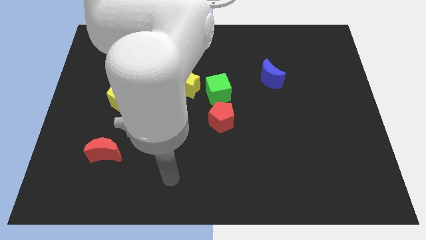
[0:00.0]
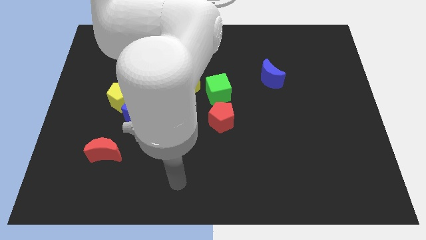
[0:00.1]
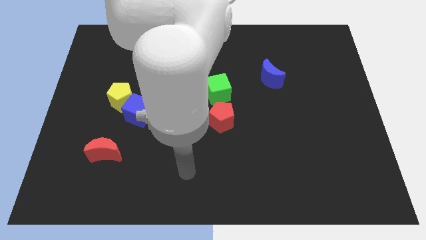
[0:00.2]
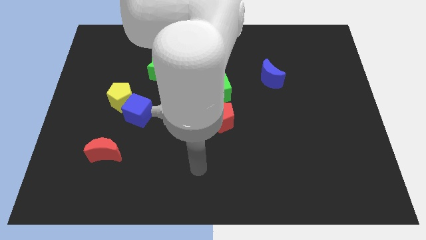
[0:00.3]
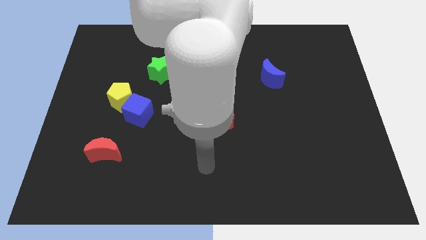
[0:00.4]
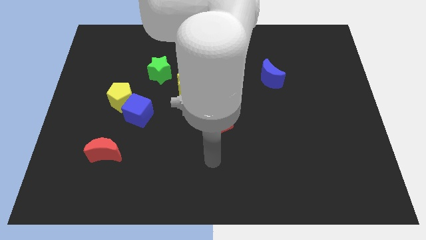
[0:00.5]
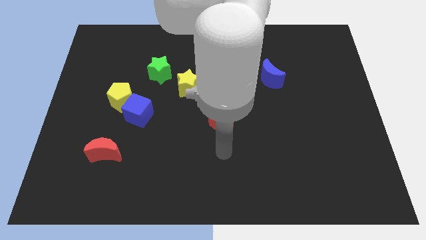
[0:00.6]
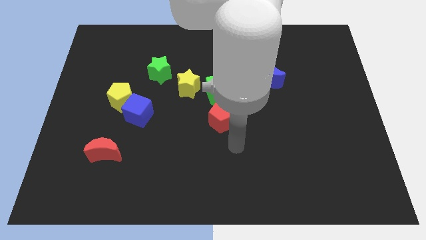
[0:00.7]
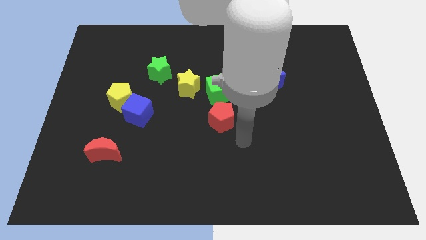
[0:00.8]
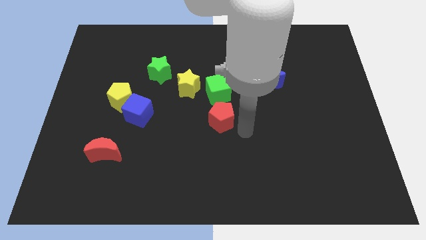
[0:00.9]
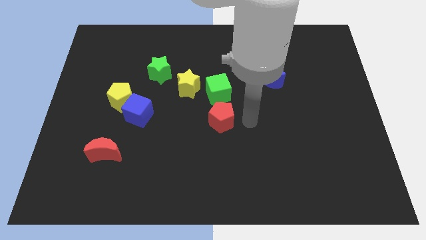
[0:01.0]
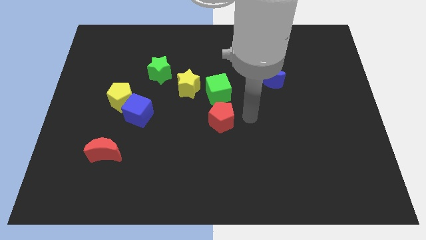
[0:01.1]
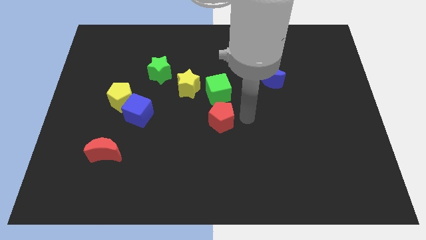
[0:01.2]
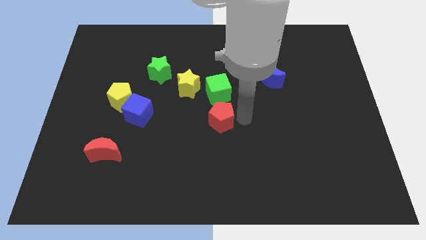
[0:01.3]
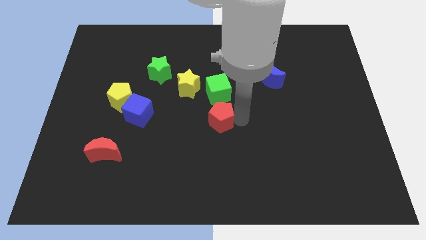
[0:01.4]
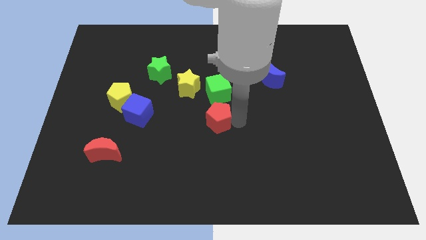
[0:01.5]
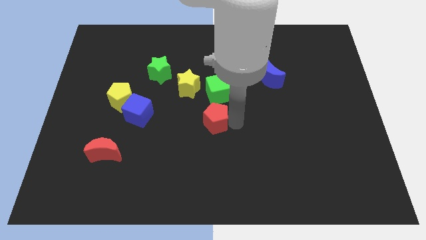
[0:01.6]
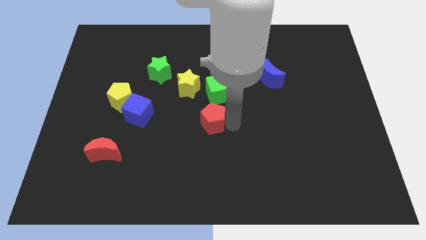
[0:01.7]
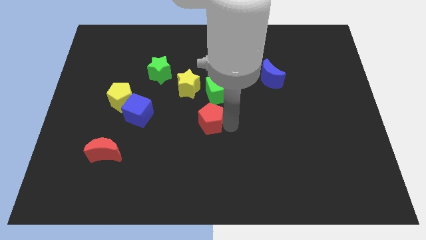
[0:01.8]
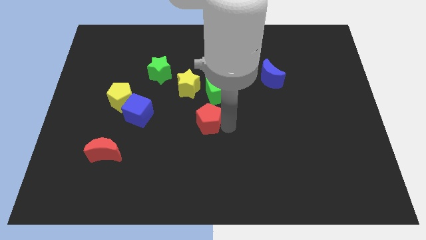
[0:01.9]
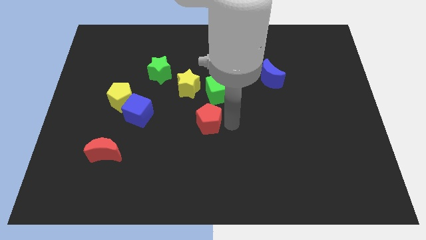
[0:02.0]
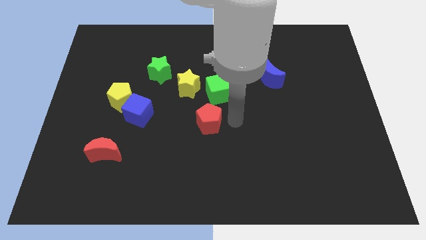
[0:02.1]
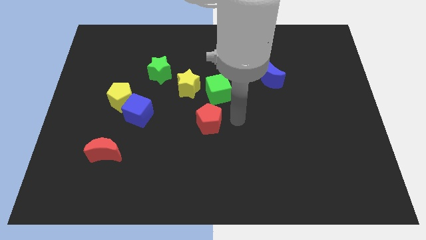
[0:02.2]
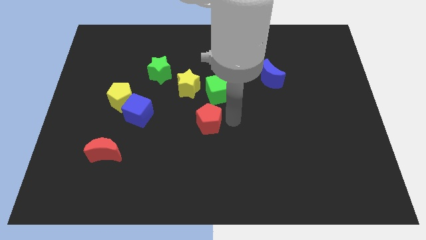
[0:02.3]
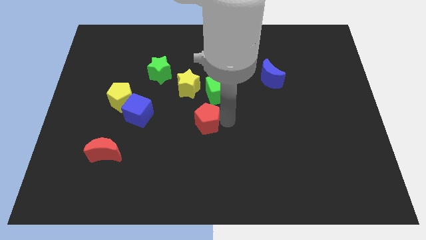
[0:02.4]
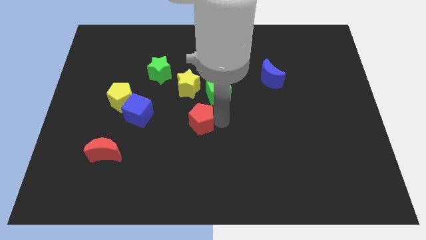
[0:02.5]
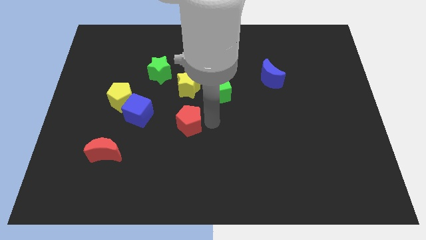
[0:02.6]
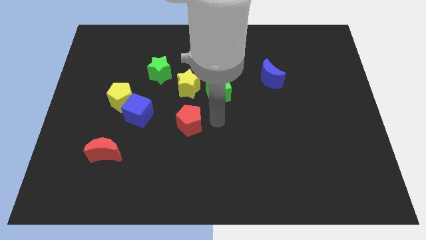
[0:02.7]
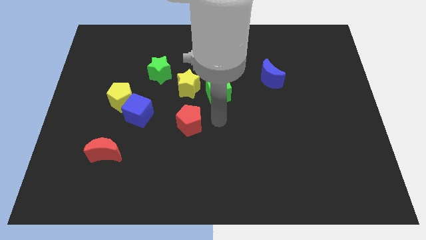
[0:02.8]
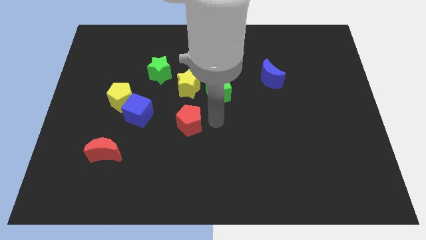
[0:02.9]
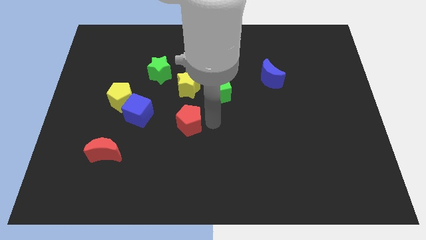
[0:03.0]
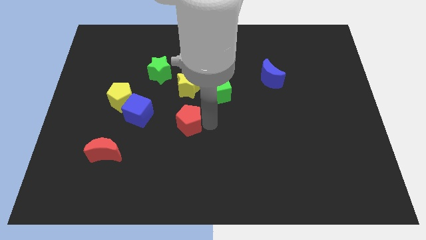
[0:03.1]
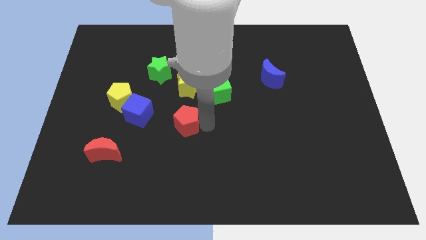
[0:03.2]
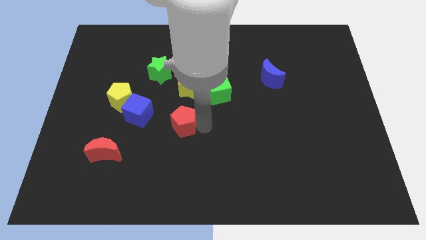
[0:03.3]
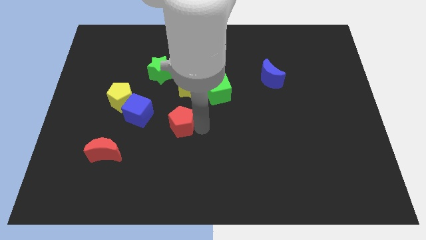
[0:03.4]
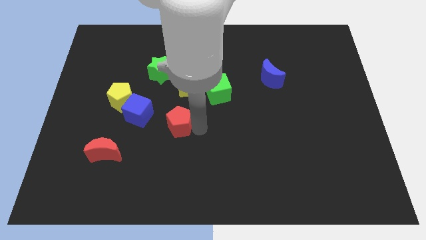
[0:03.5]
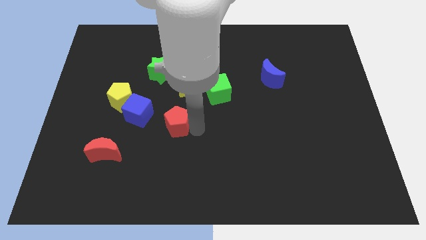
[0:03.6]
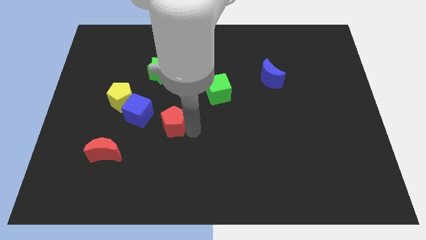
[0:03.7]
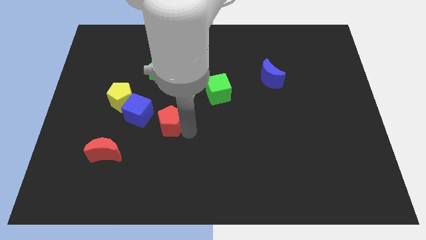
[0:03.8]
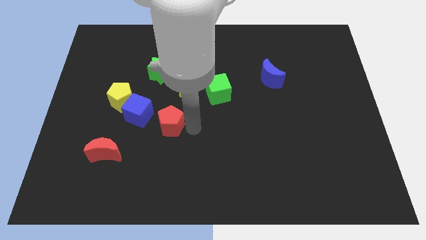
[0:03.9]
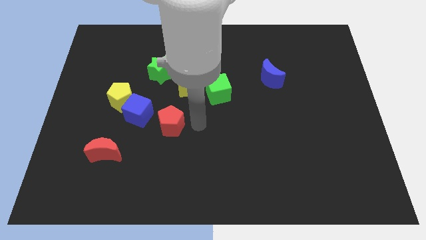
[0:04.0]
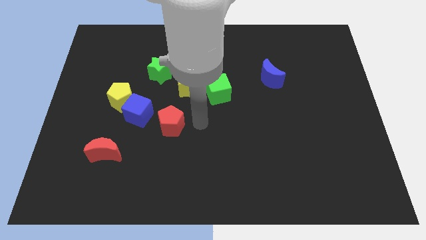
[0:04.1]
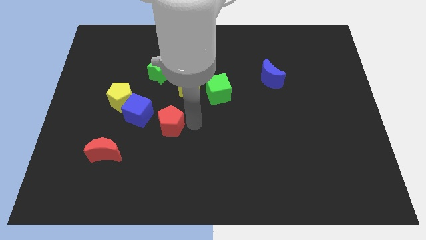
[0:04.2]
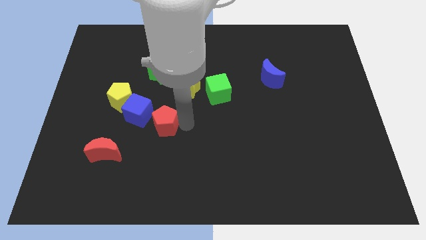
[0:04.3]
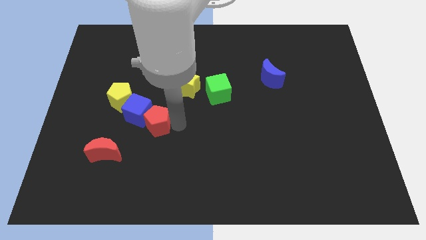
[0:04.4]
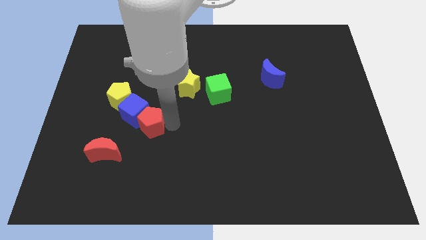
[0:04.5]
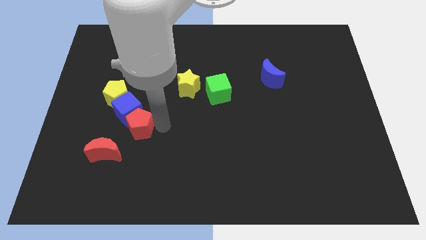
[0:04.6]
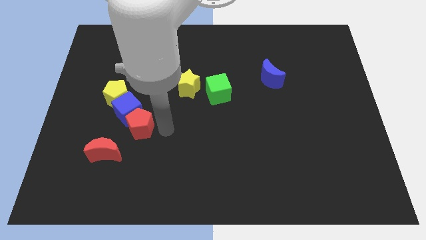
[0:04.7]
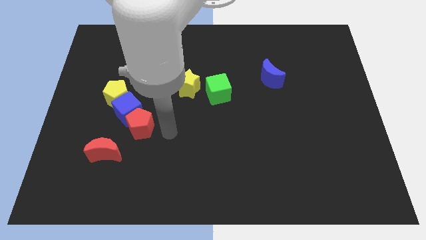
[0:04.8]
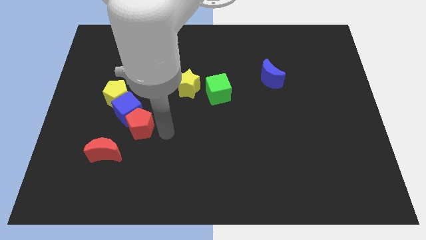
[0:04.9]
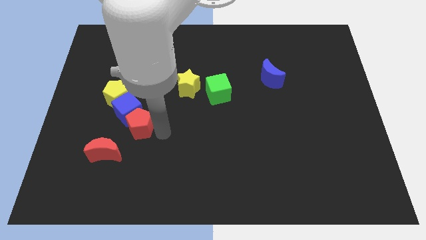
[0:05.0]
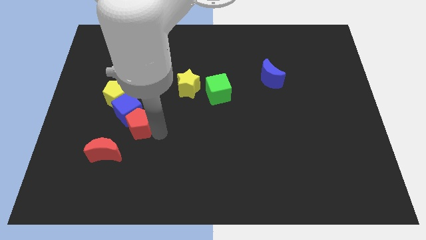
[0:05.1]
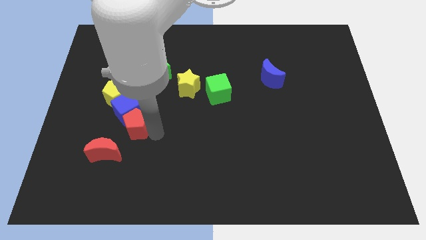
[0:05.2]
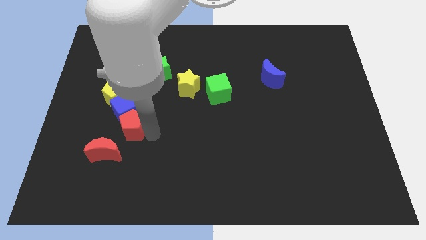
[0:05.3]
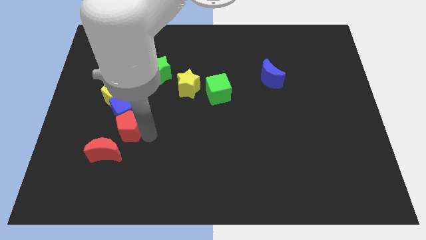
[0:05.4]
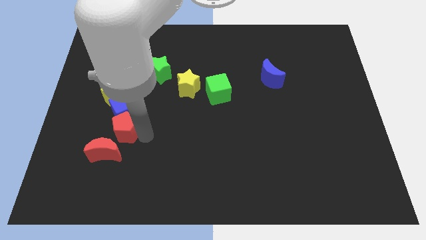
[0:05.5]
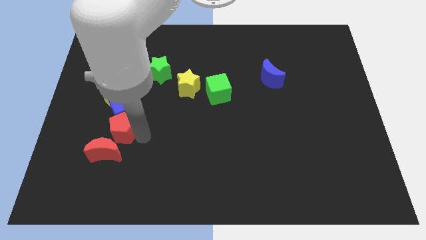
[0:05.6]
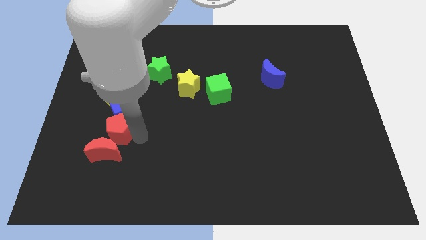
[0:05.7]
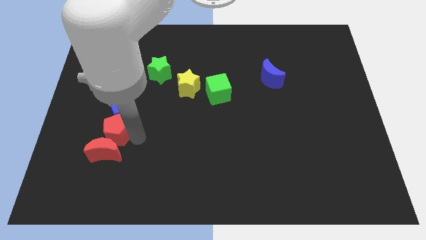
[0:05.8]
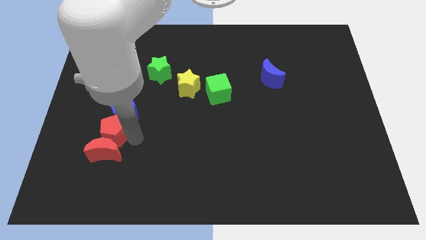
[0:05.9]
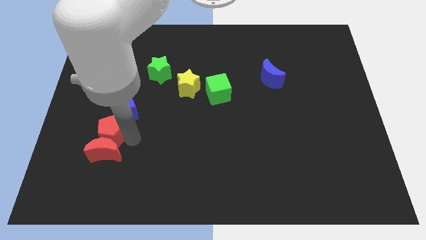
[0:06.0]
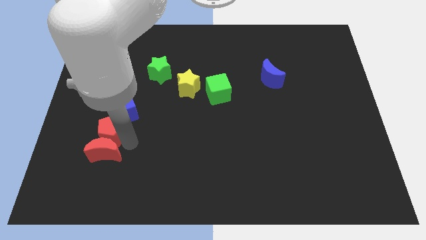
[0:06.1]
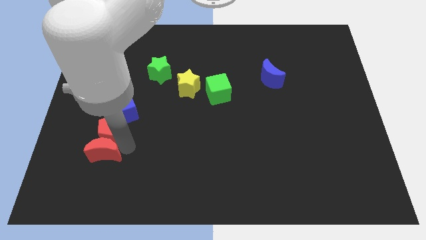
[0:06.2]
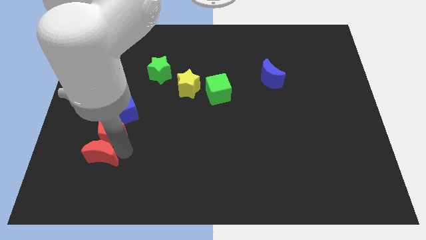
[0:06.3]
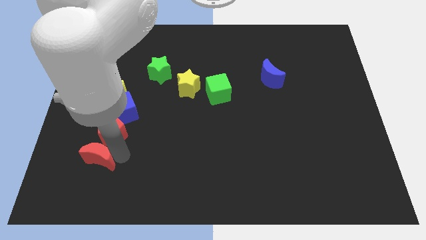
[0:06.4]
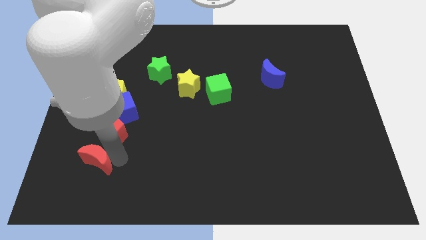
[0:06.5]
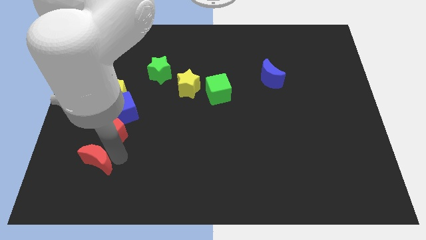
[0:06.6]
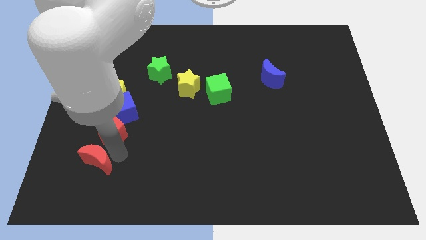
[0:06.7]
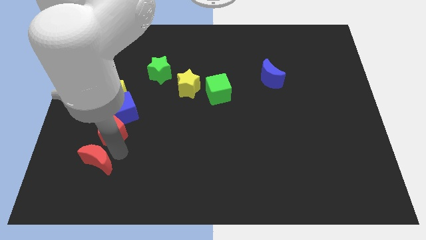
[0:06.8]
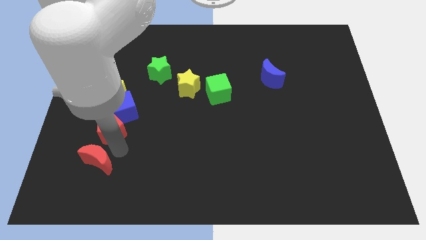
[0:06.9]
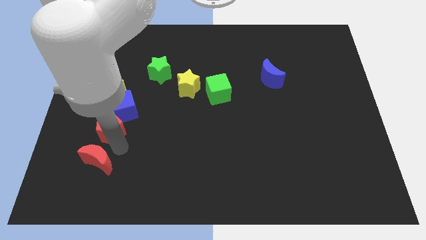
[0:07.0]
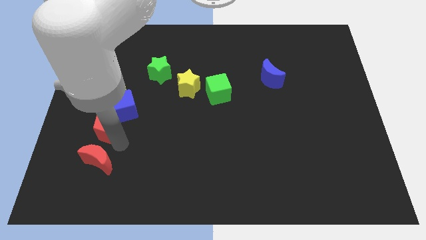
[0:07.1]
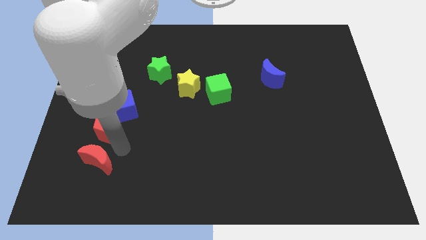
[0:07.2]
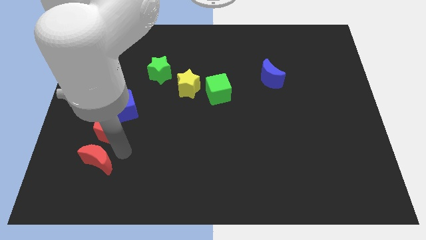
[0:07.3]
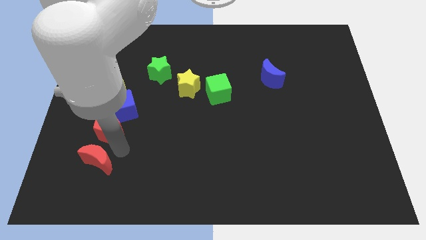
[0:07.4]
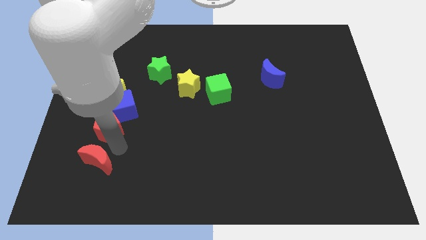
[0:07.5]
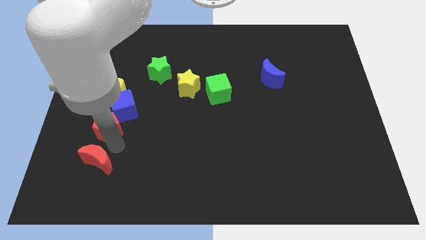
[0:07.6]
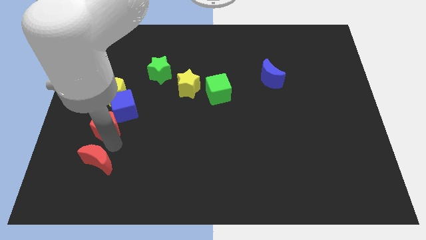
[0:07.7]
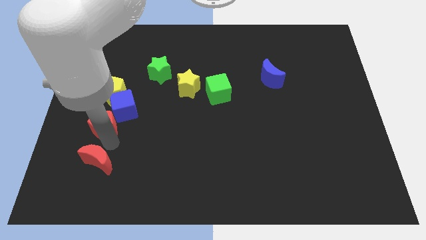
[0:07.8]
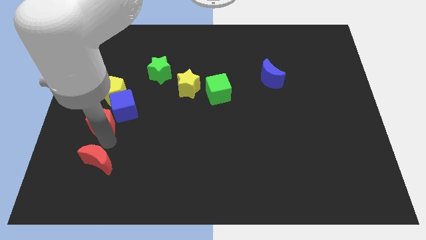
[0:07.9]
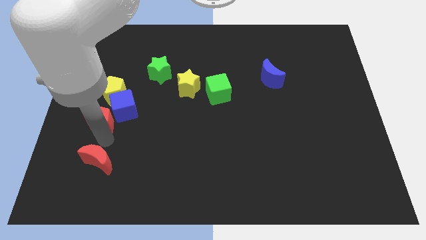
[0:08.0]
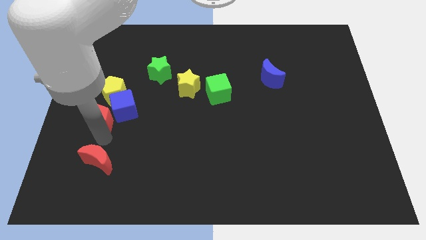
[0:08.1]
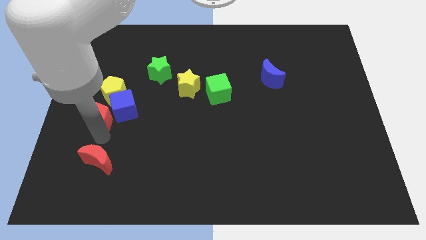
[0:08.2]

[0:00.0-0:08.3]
put the red pentagon to the center left
